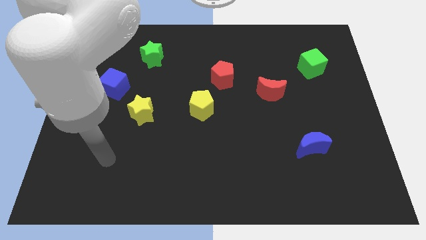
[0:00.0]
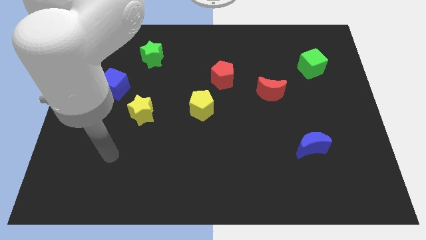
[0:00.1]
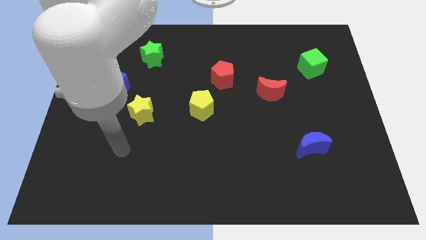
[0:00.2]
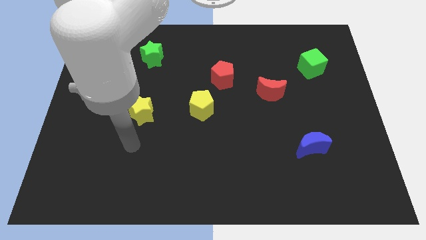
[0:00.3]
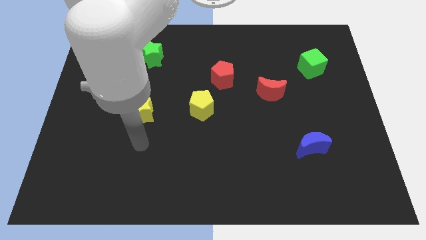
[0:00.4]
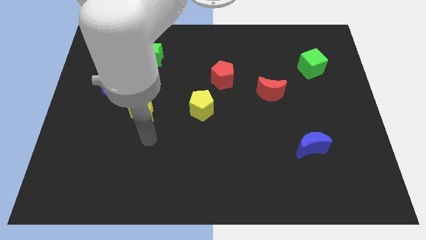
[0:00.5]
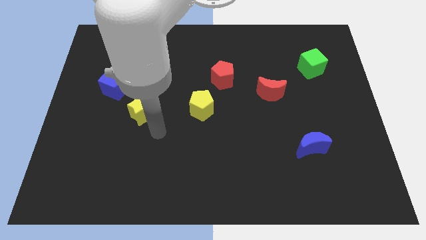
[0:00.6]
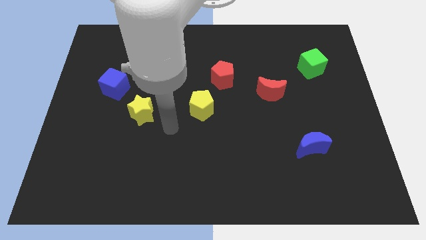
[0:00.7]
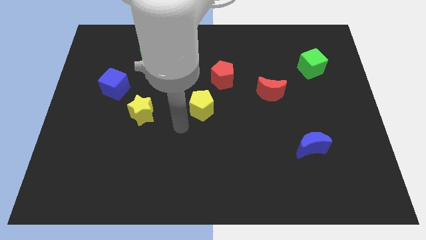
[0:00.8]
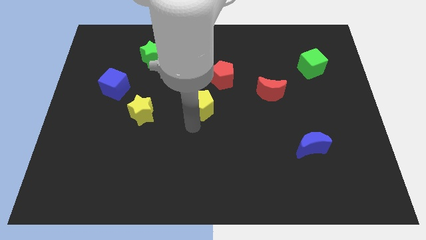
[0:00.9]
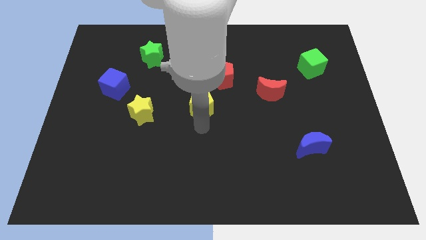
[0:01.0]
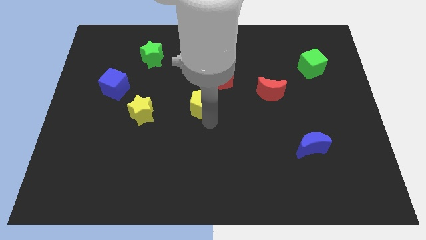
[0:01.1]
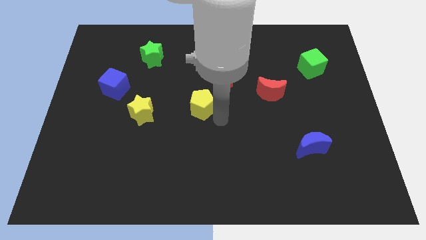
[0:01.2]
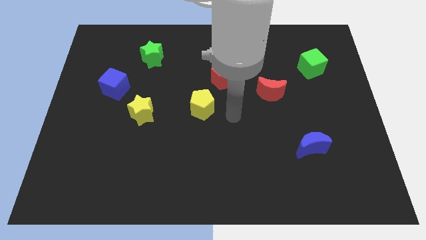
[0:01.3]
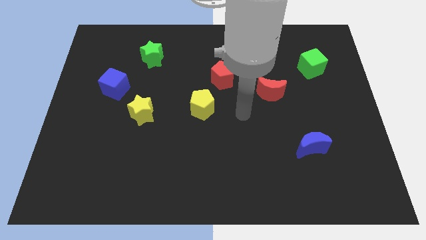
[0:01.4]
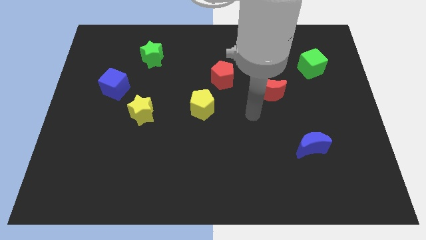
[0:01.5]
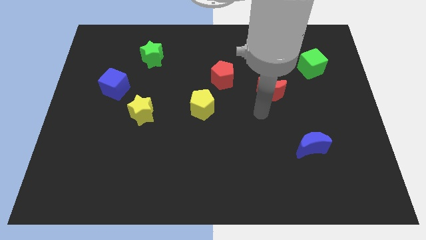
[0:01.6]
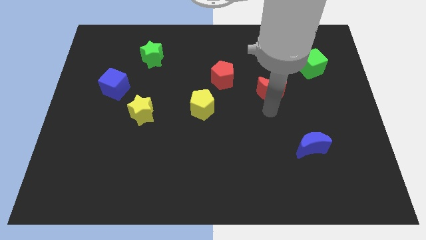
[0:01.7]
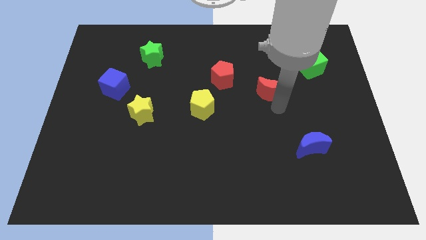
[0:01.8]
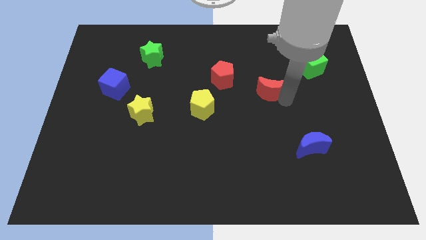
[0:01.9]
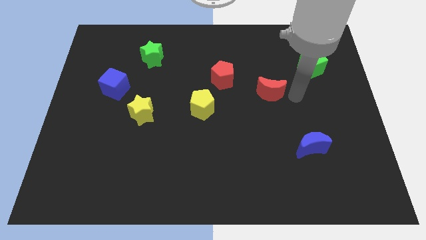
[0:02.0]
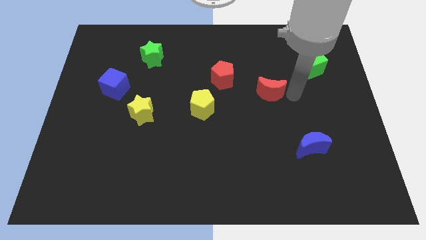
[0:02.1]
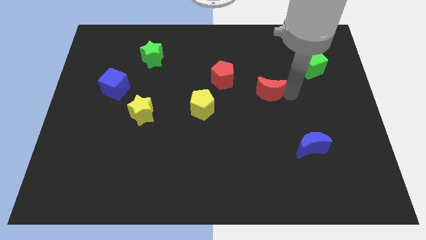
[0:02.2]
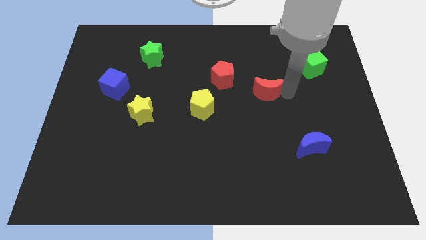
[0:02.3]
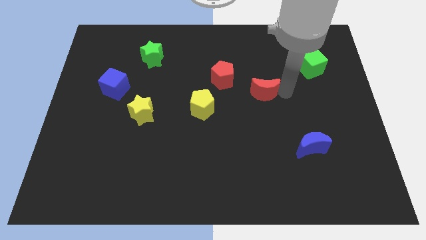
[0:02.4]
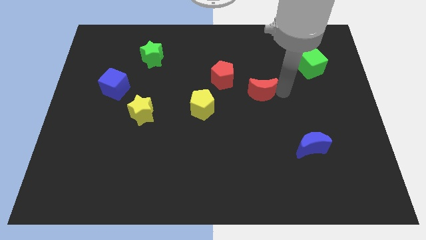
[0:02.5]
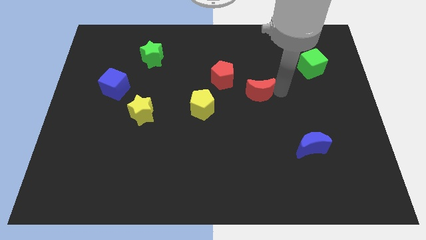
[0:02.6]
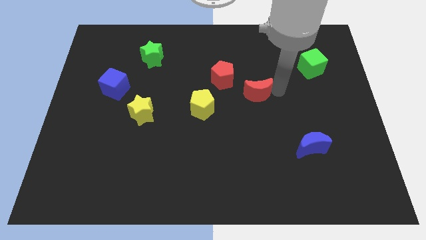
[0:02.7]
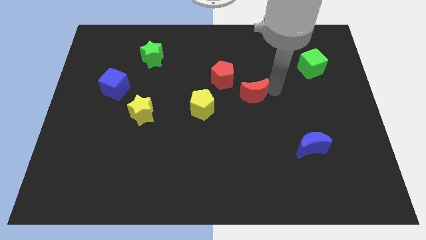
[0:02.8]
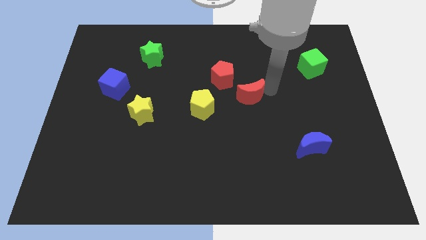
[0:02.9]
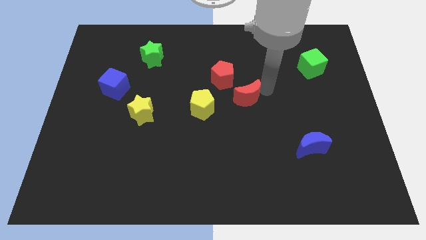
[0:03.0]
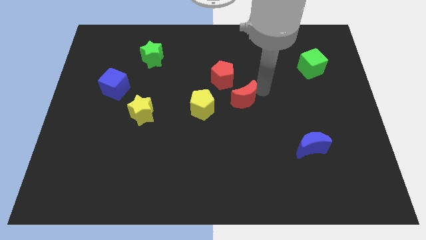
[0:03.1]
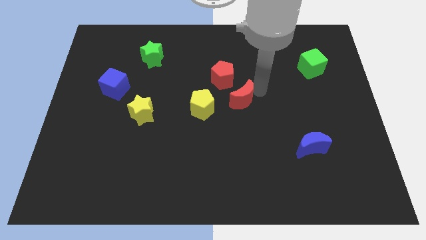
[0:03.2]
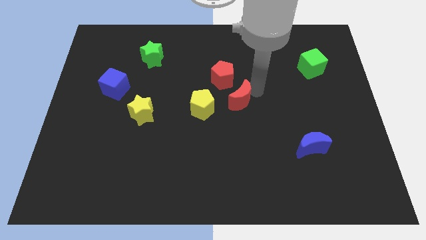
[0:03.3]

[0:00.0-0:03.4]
slightly push the red moon left

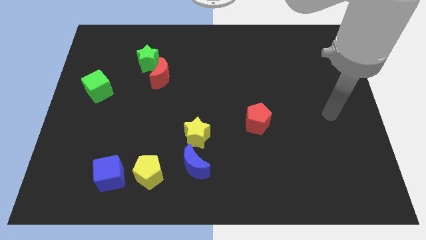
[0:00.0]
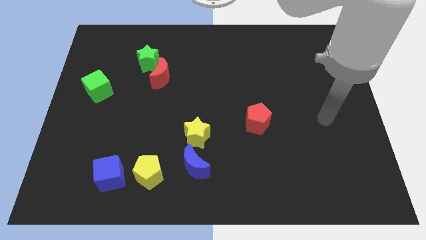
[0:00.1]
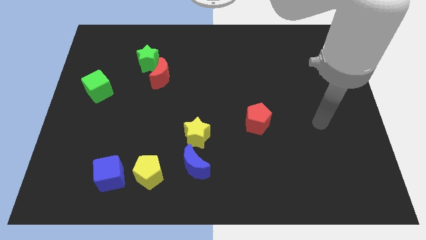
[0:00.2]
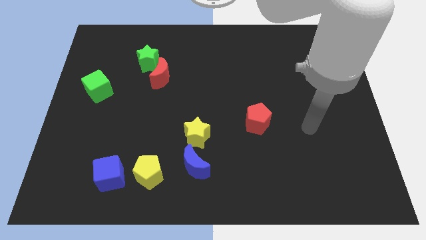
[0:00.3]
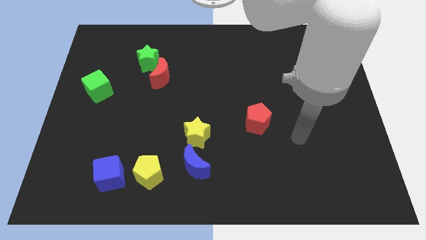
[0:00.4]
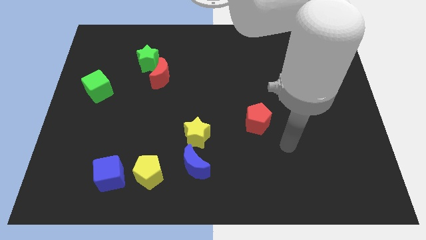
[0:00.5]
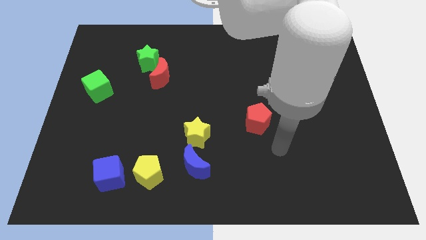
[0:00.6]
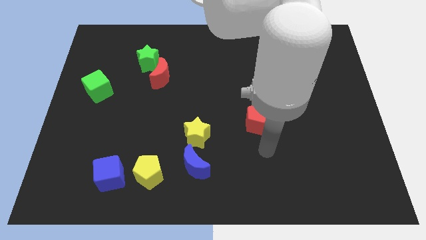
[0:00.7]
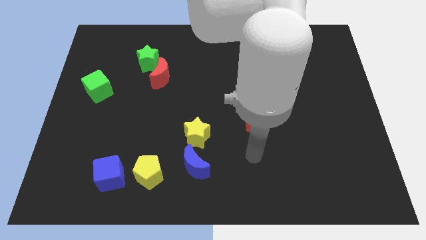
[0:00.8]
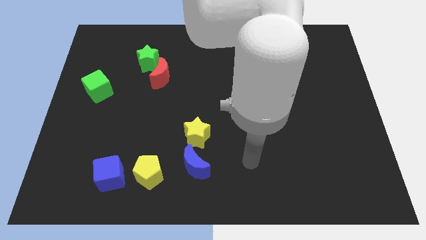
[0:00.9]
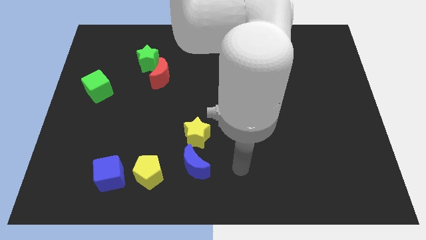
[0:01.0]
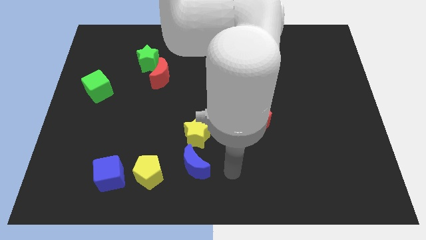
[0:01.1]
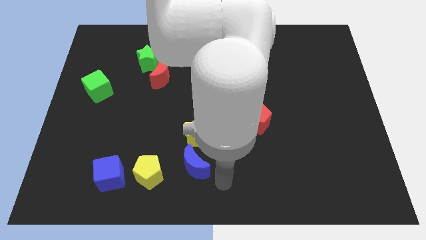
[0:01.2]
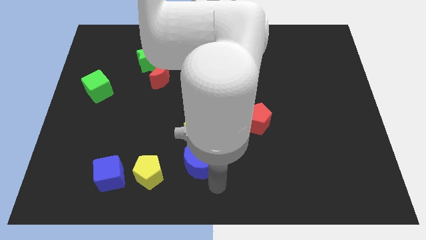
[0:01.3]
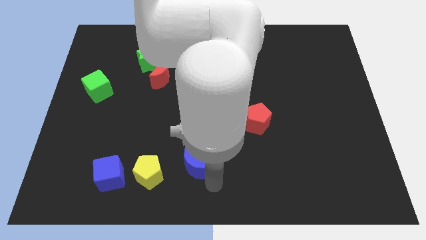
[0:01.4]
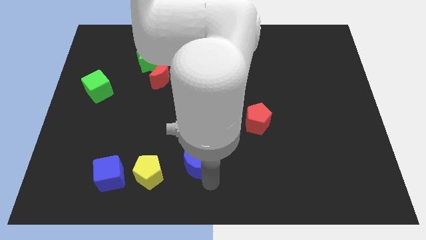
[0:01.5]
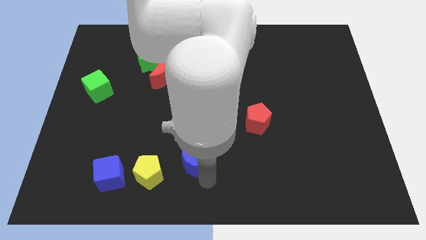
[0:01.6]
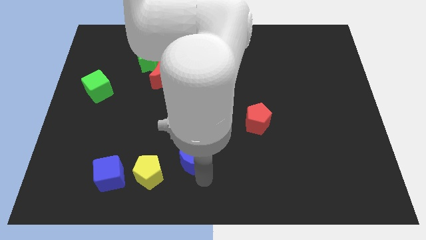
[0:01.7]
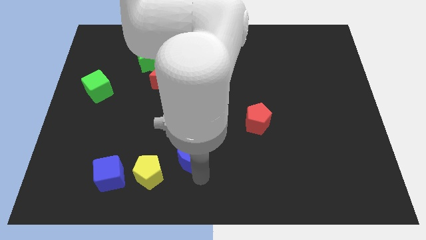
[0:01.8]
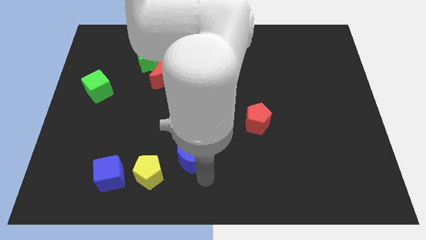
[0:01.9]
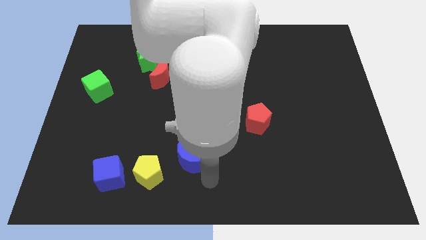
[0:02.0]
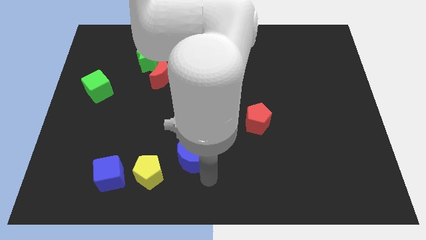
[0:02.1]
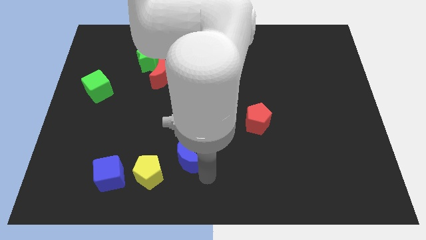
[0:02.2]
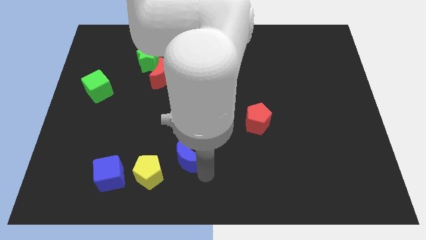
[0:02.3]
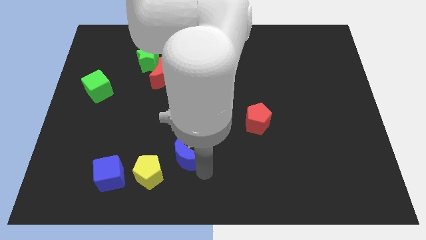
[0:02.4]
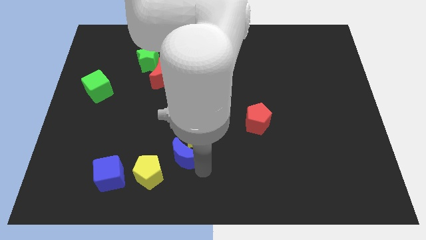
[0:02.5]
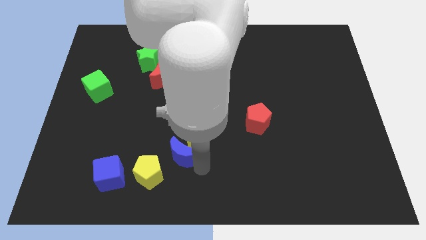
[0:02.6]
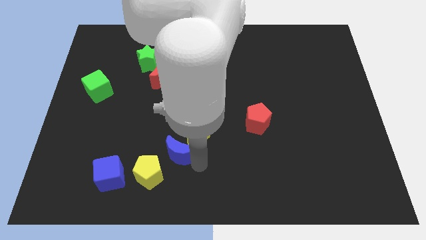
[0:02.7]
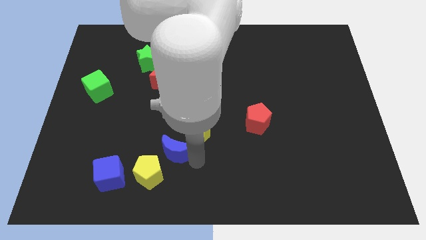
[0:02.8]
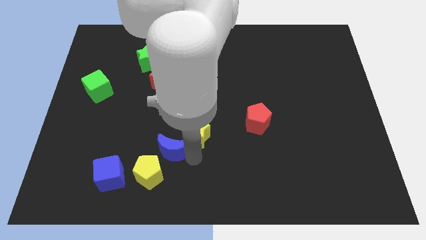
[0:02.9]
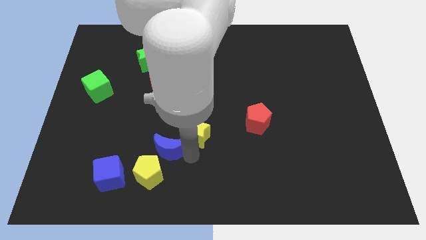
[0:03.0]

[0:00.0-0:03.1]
move the blue moon diagonally up and to the left a bit

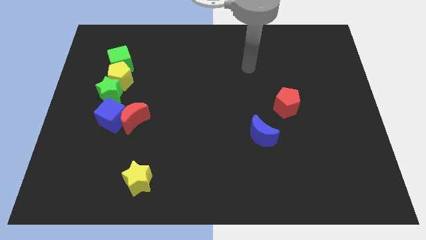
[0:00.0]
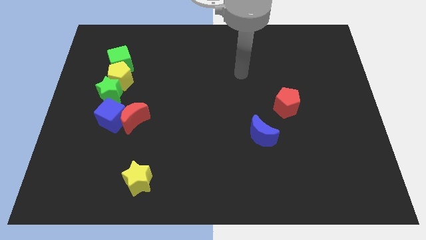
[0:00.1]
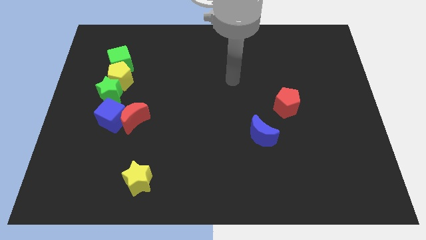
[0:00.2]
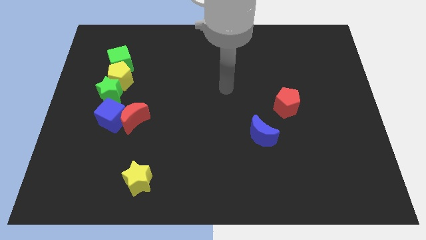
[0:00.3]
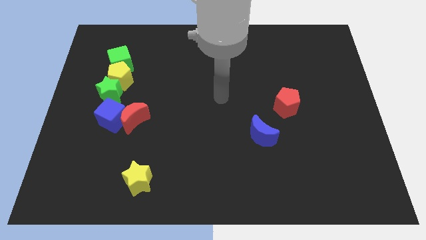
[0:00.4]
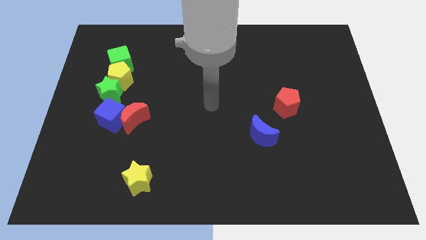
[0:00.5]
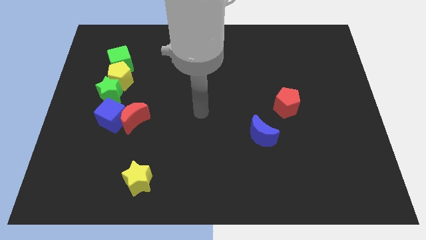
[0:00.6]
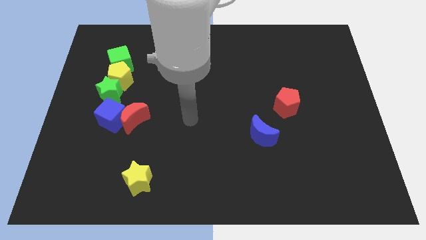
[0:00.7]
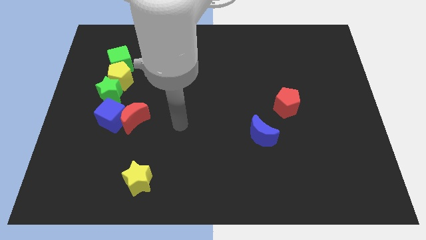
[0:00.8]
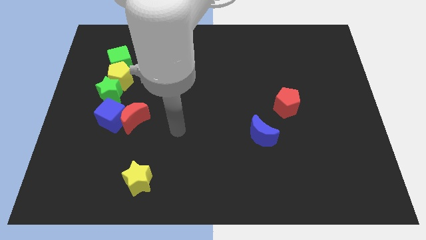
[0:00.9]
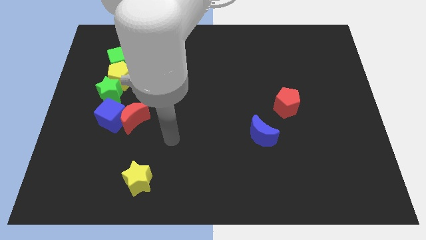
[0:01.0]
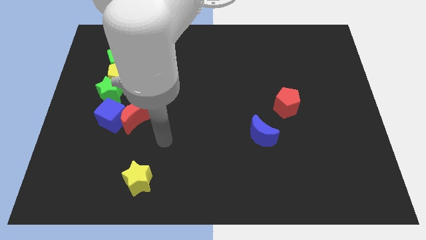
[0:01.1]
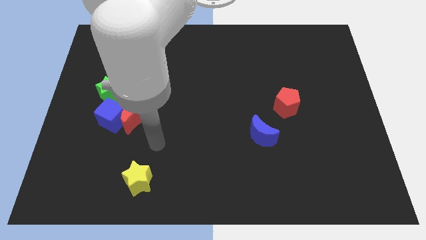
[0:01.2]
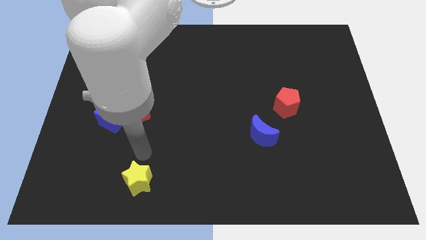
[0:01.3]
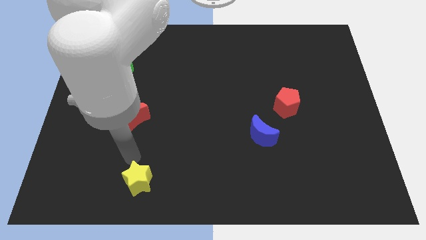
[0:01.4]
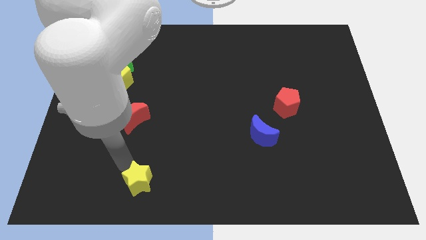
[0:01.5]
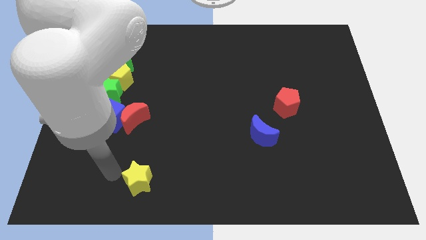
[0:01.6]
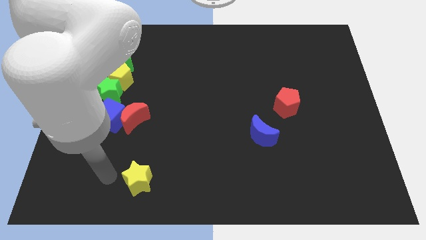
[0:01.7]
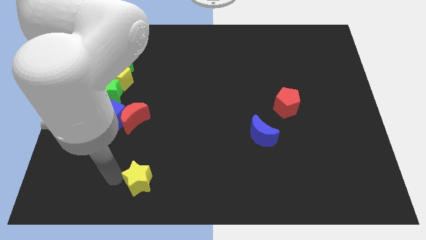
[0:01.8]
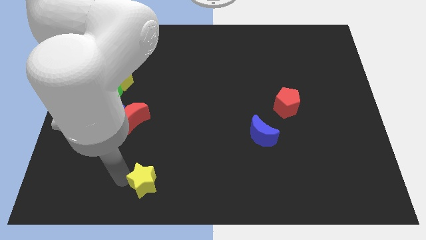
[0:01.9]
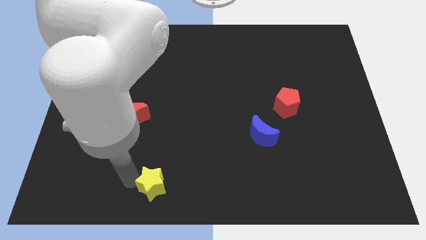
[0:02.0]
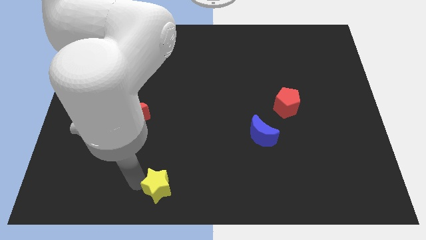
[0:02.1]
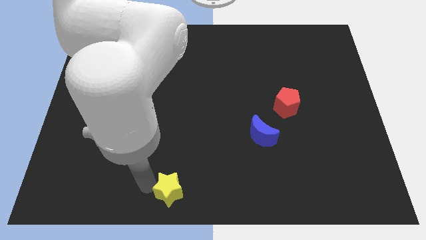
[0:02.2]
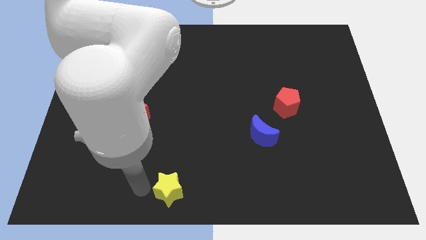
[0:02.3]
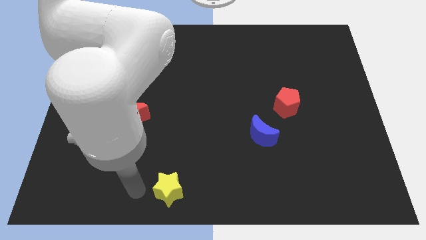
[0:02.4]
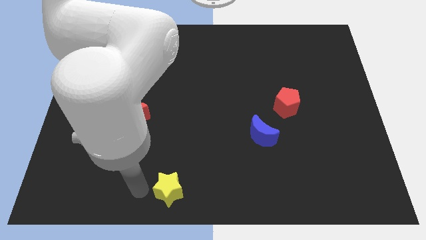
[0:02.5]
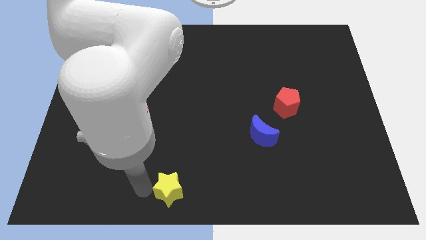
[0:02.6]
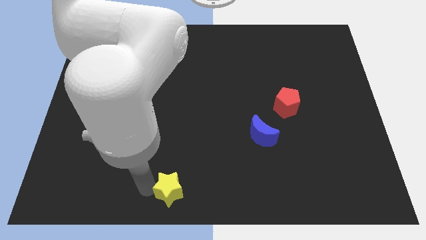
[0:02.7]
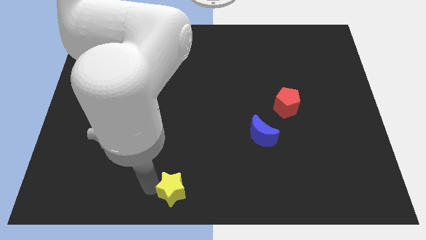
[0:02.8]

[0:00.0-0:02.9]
slightly slide the yellow star right
